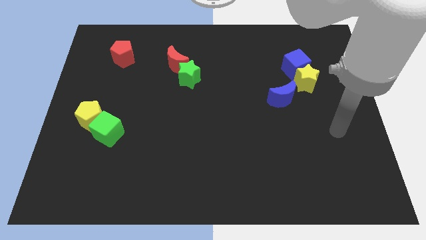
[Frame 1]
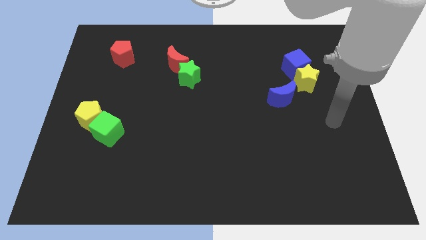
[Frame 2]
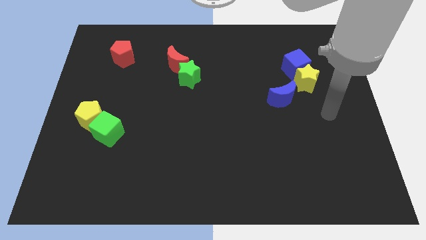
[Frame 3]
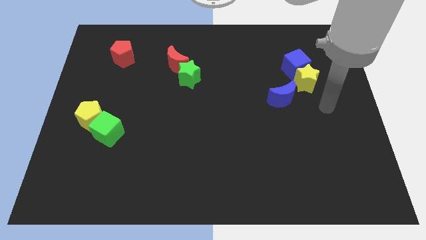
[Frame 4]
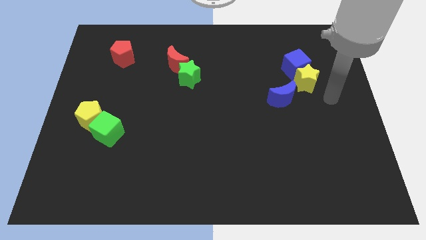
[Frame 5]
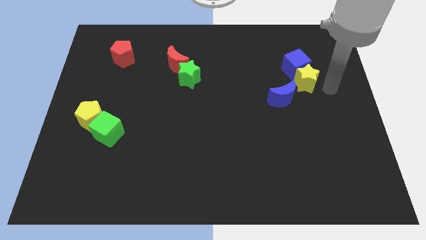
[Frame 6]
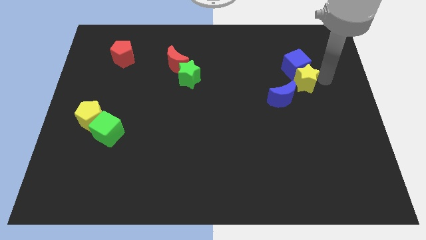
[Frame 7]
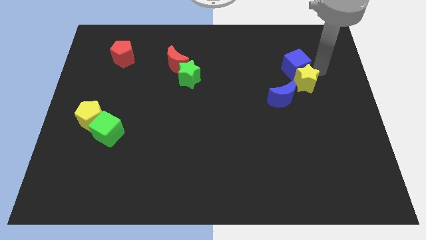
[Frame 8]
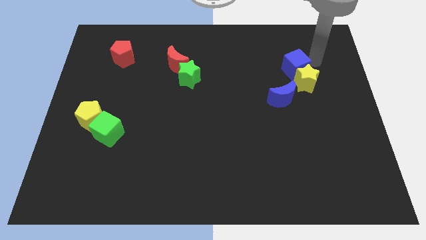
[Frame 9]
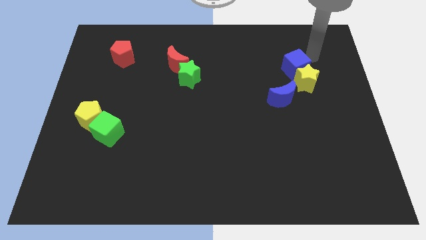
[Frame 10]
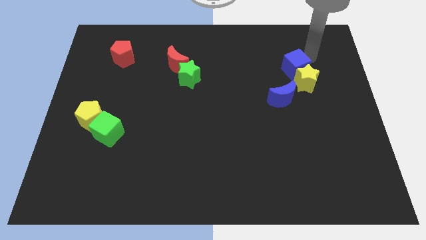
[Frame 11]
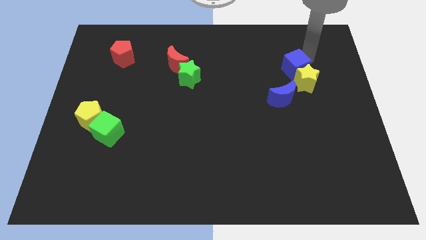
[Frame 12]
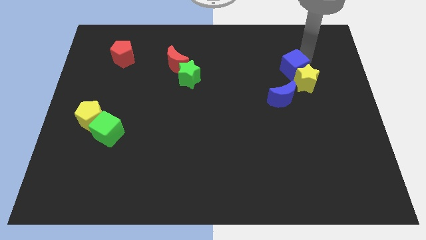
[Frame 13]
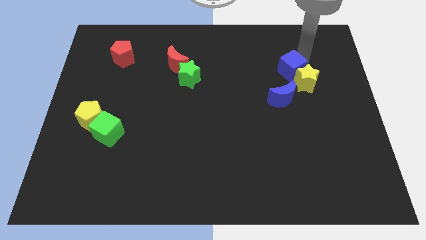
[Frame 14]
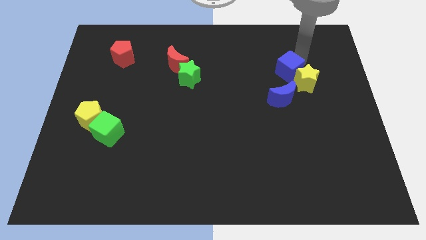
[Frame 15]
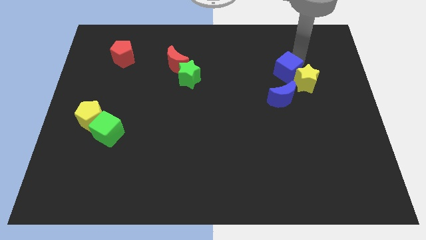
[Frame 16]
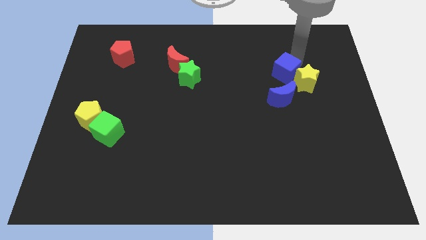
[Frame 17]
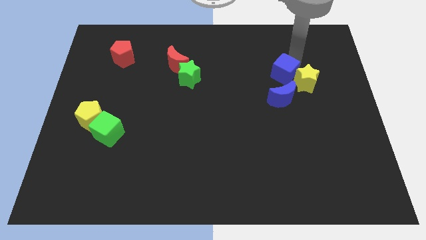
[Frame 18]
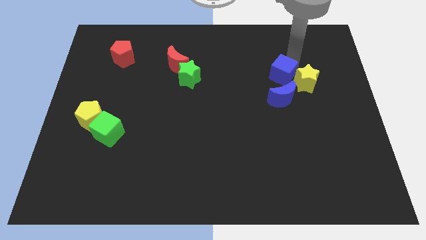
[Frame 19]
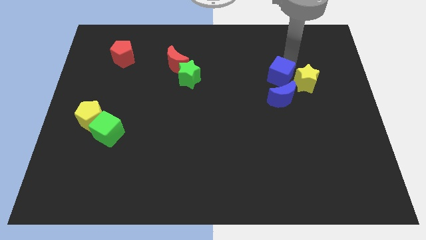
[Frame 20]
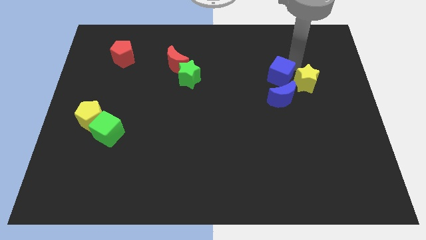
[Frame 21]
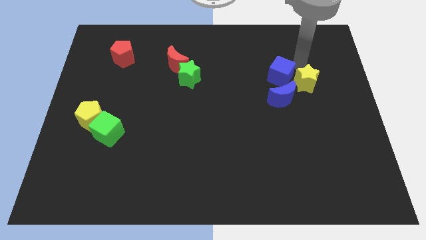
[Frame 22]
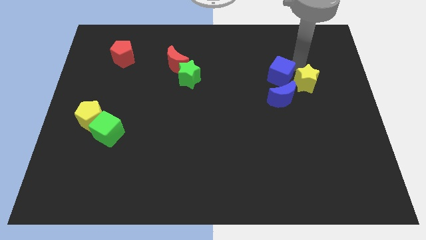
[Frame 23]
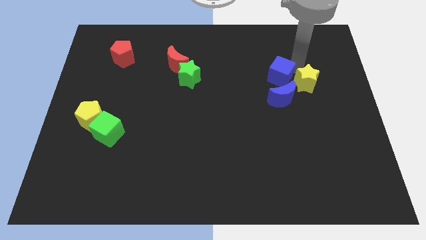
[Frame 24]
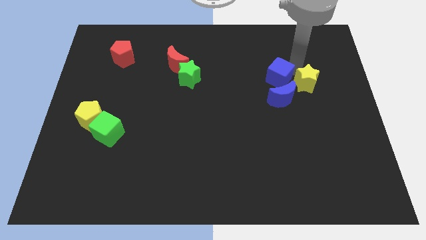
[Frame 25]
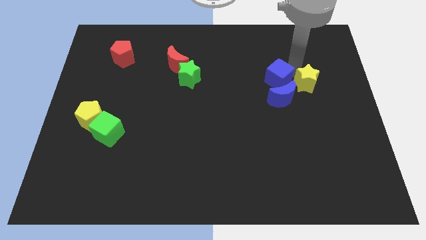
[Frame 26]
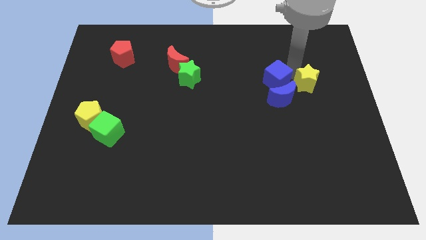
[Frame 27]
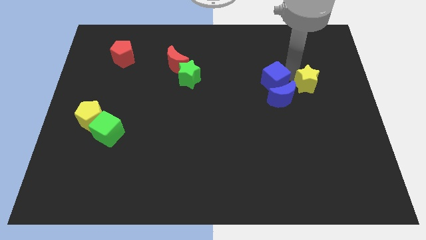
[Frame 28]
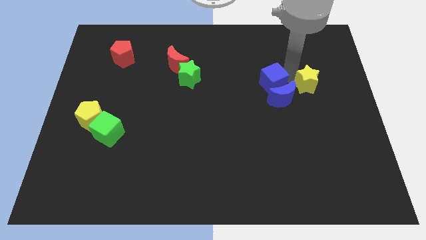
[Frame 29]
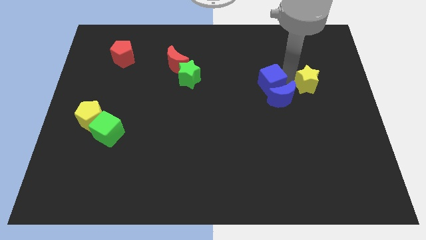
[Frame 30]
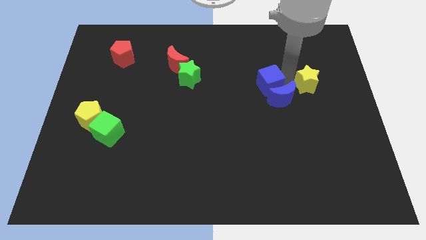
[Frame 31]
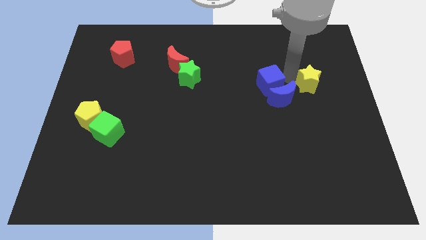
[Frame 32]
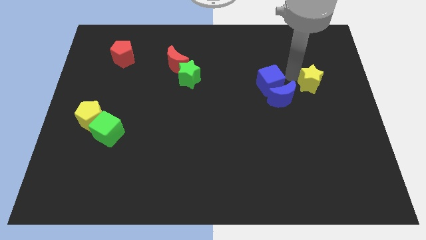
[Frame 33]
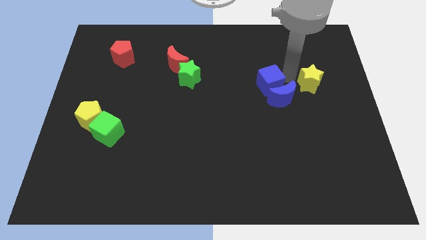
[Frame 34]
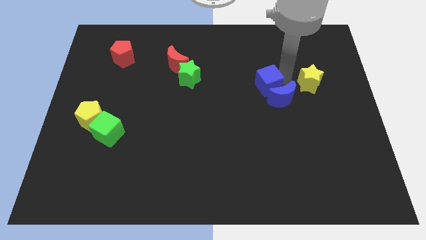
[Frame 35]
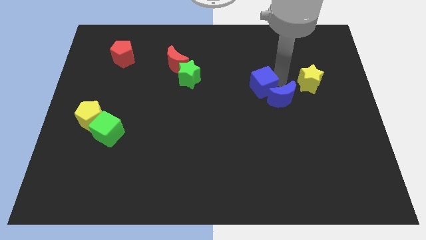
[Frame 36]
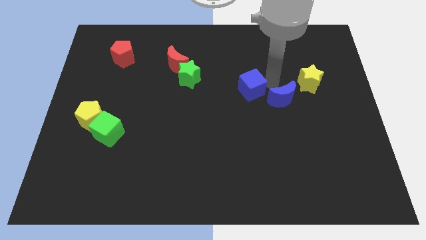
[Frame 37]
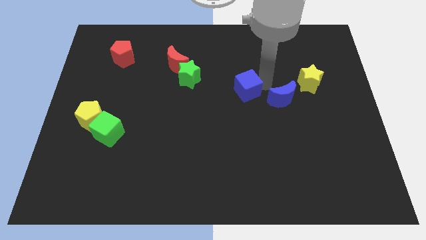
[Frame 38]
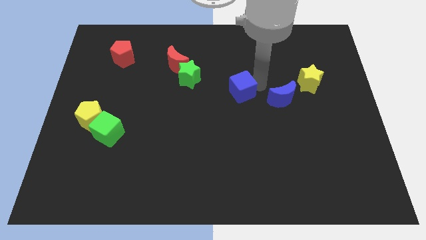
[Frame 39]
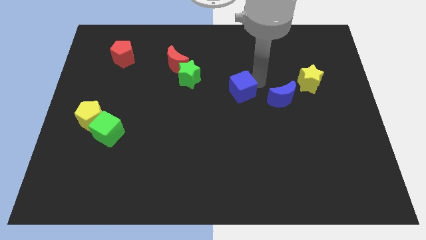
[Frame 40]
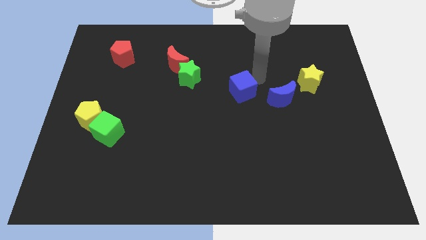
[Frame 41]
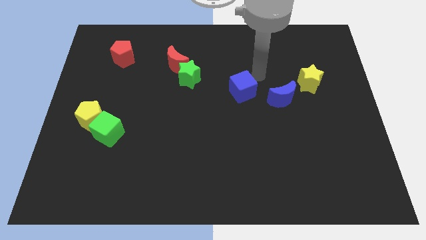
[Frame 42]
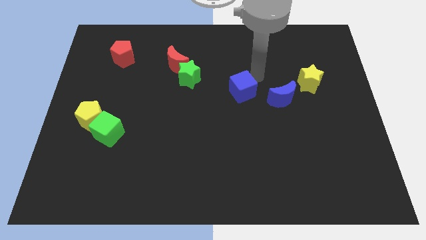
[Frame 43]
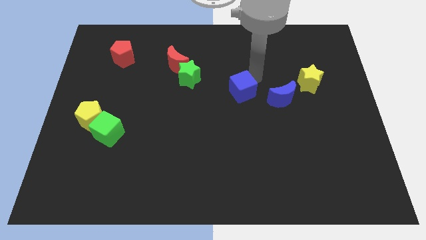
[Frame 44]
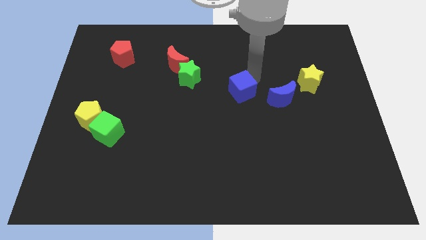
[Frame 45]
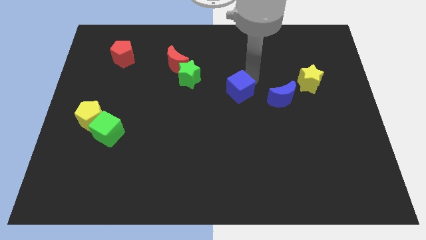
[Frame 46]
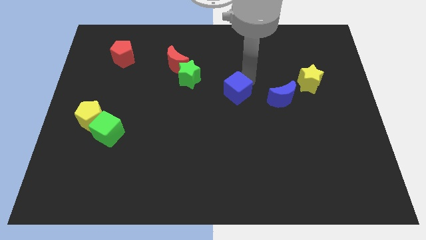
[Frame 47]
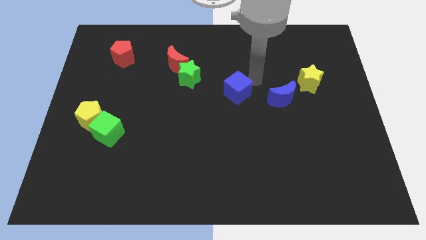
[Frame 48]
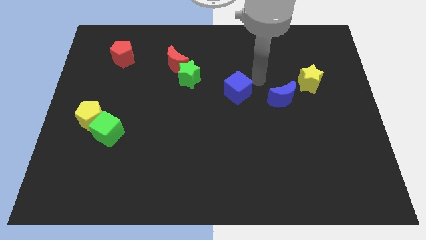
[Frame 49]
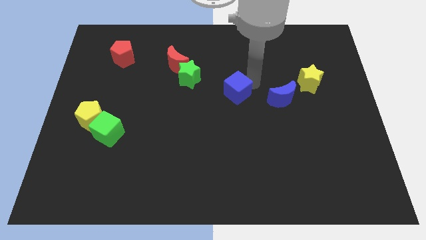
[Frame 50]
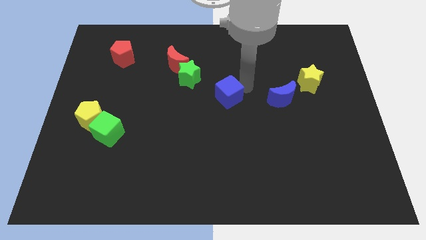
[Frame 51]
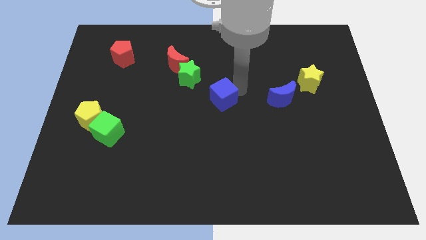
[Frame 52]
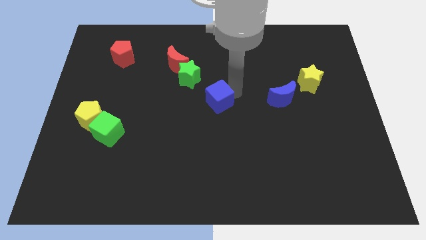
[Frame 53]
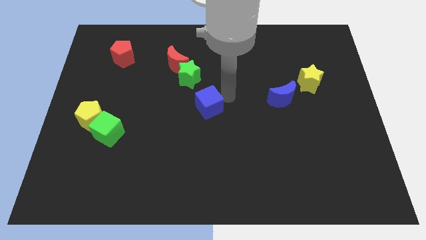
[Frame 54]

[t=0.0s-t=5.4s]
put the blue cube to the bottom of the green star

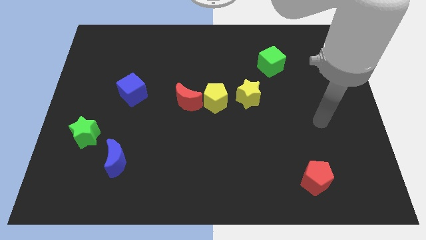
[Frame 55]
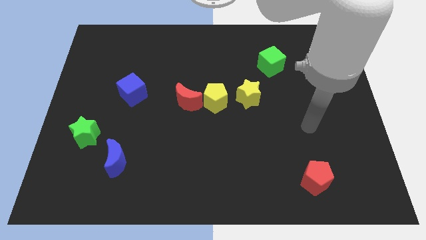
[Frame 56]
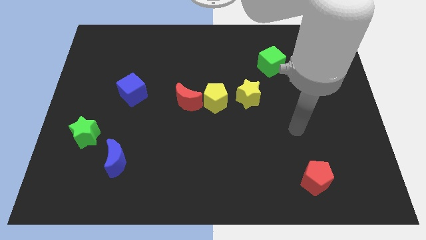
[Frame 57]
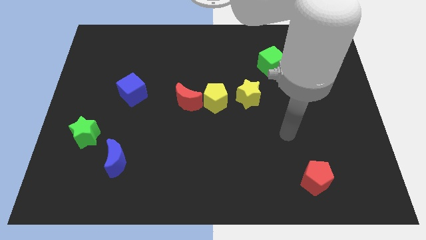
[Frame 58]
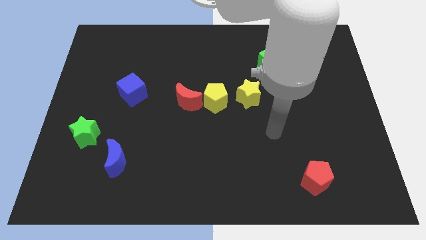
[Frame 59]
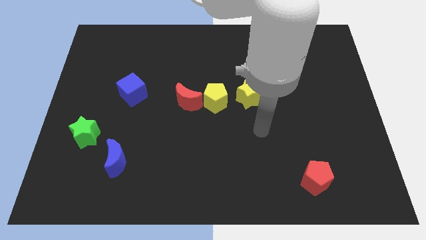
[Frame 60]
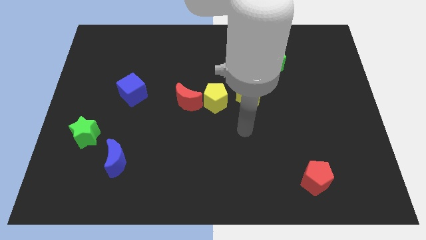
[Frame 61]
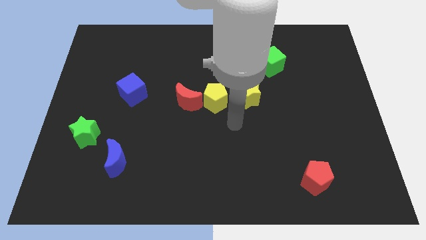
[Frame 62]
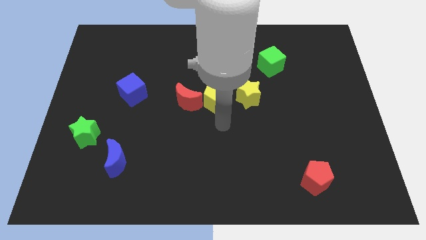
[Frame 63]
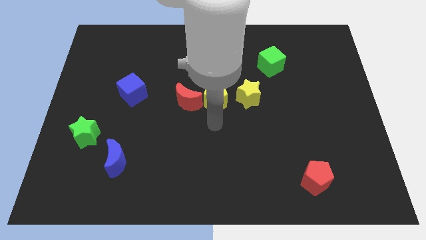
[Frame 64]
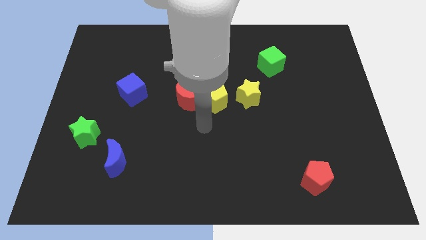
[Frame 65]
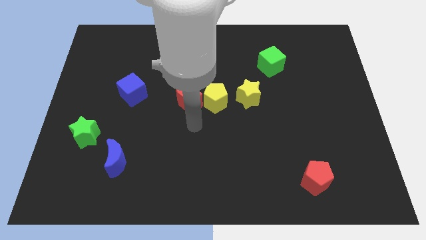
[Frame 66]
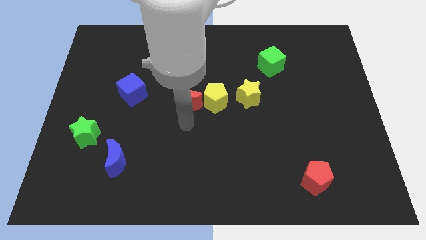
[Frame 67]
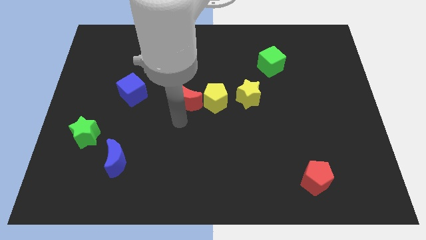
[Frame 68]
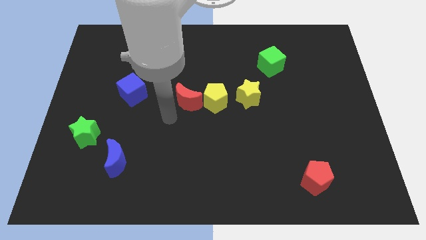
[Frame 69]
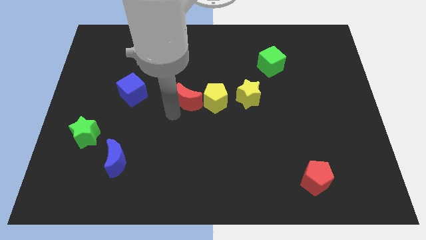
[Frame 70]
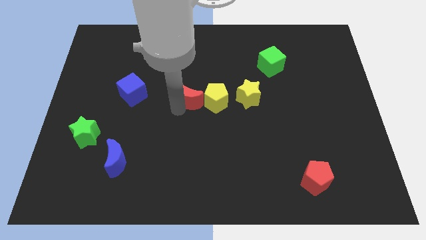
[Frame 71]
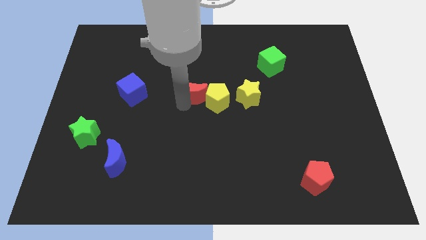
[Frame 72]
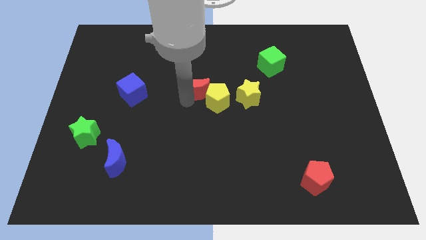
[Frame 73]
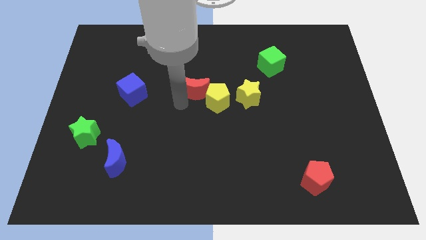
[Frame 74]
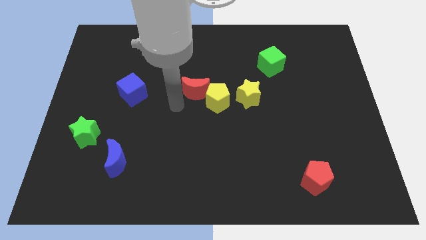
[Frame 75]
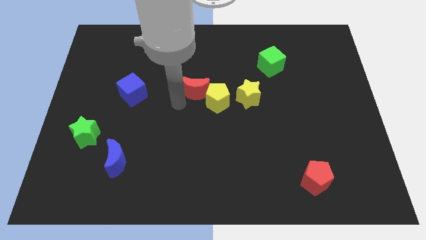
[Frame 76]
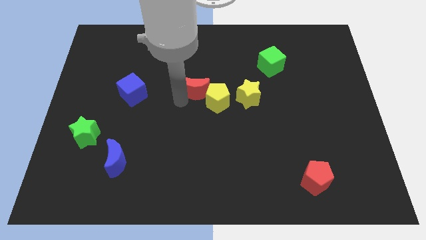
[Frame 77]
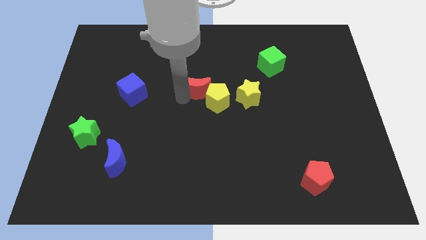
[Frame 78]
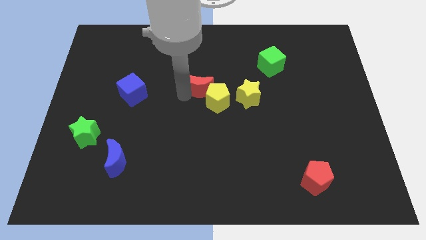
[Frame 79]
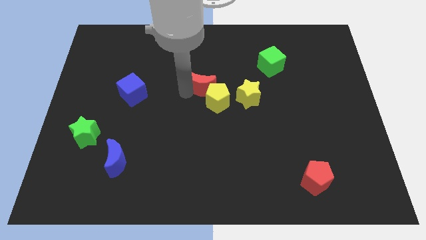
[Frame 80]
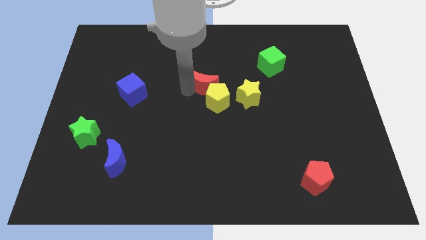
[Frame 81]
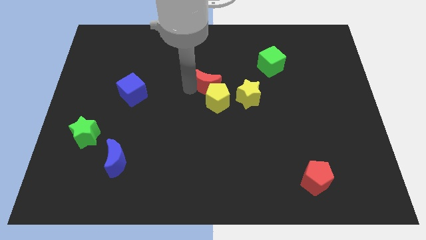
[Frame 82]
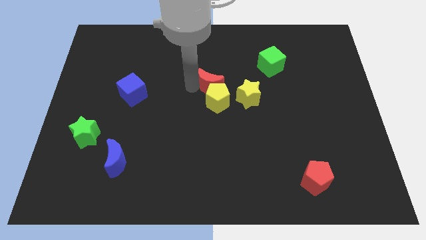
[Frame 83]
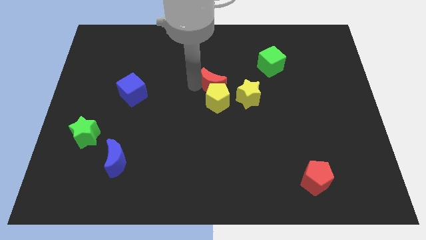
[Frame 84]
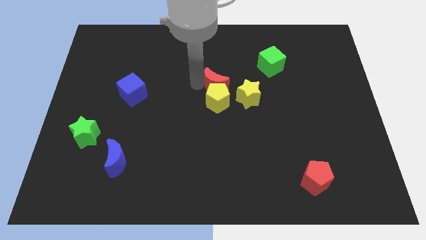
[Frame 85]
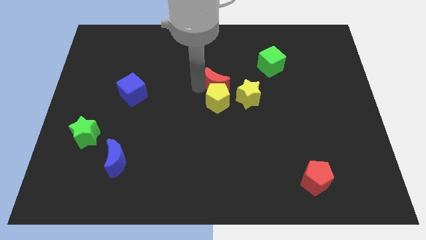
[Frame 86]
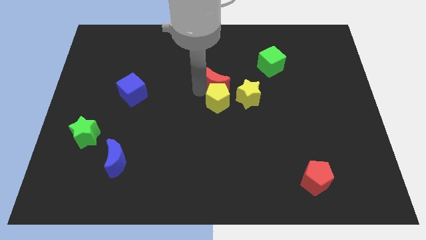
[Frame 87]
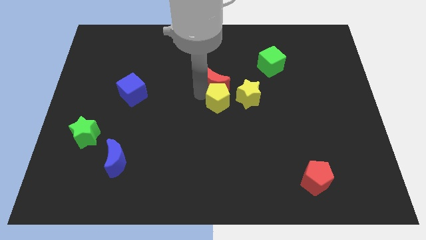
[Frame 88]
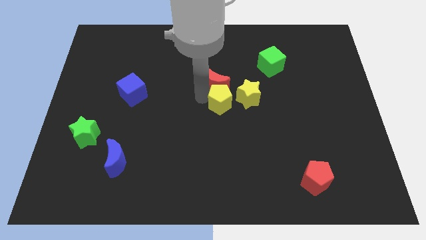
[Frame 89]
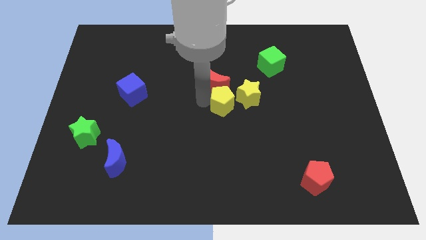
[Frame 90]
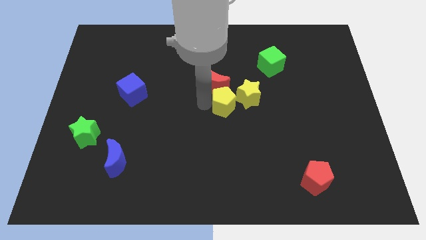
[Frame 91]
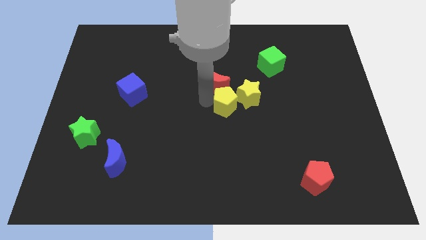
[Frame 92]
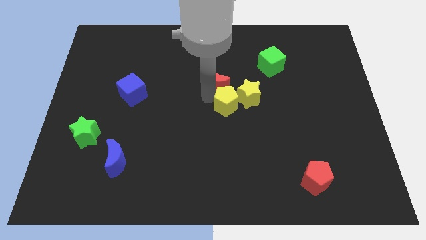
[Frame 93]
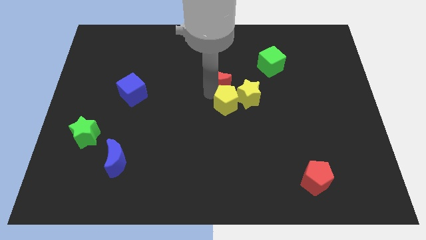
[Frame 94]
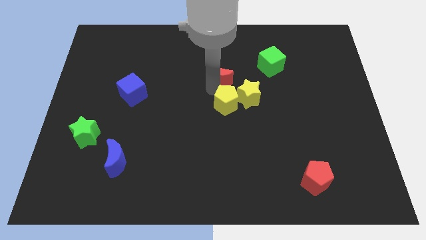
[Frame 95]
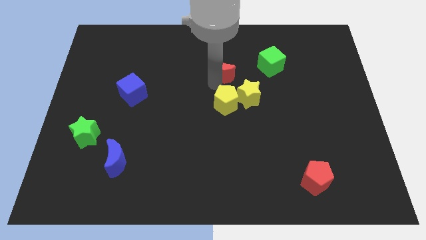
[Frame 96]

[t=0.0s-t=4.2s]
move the red moon to the left side of the green cube
